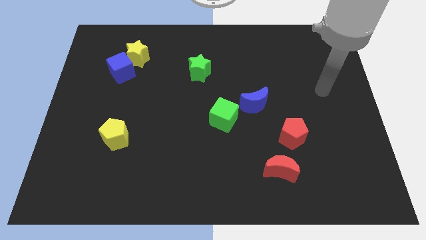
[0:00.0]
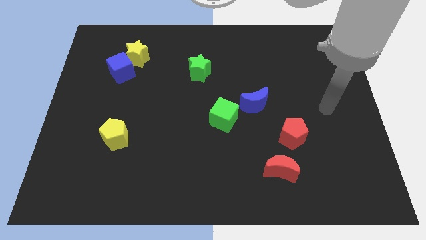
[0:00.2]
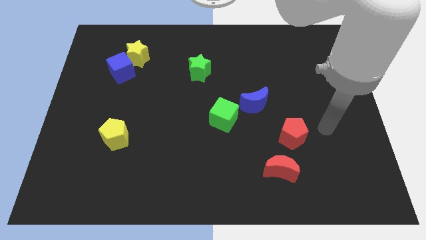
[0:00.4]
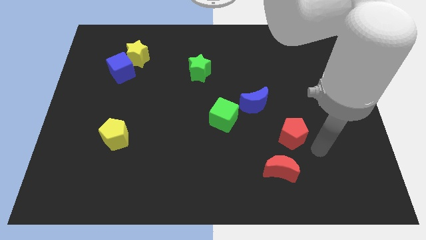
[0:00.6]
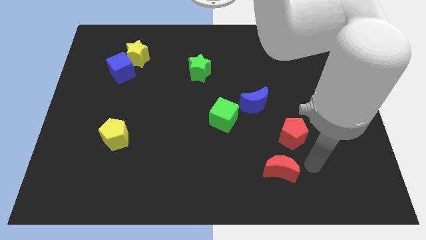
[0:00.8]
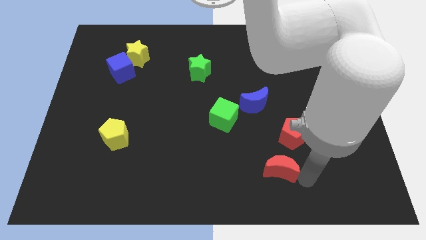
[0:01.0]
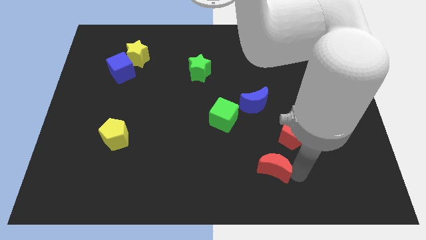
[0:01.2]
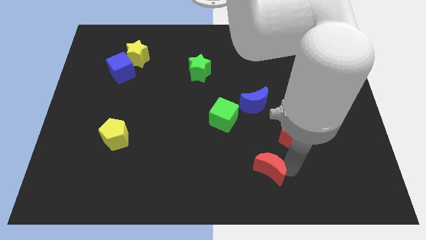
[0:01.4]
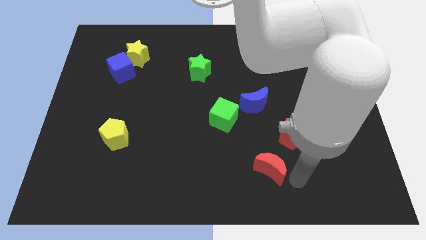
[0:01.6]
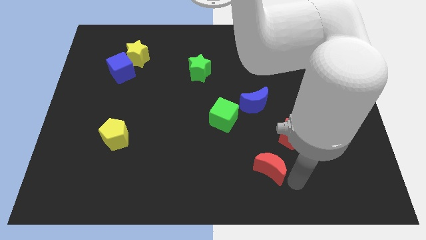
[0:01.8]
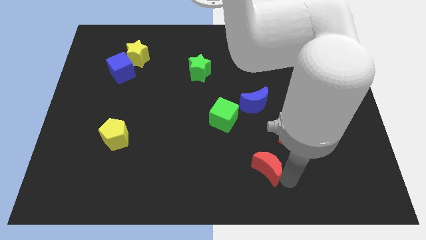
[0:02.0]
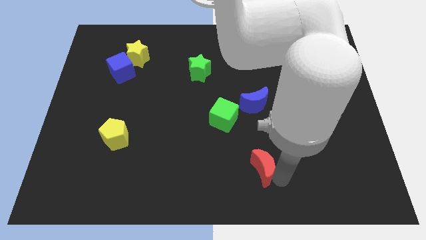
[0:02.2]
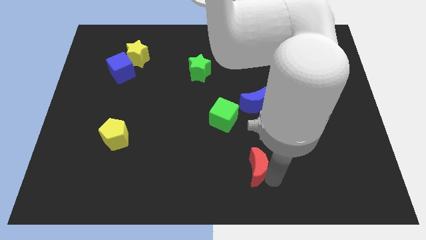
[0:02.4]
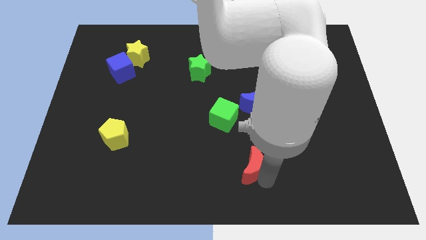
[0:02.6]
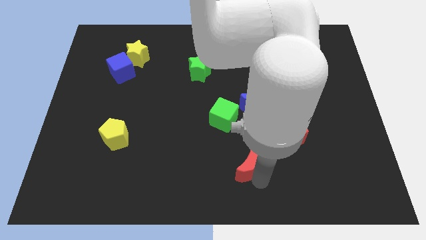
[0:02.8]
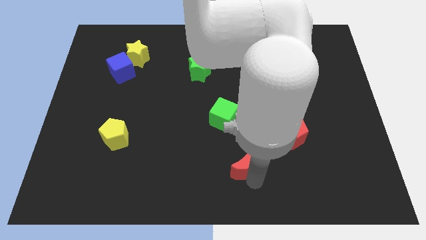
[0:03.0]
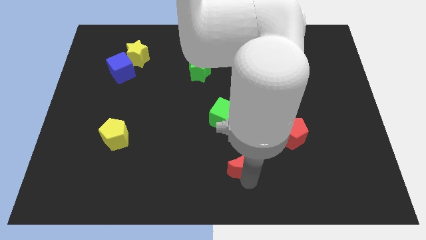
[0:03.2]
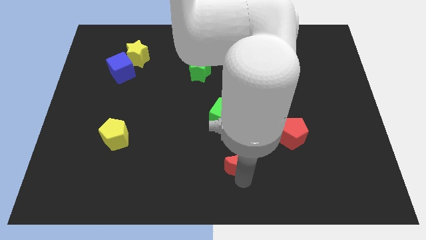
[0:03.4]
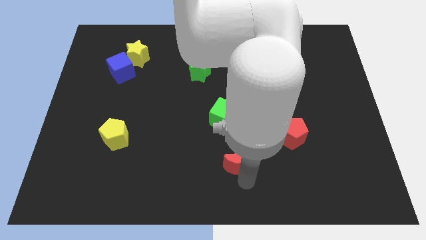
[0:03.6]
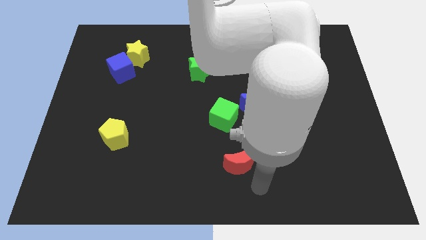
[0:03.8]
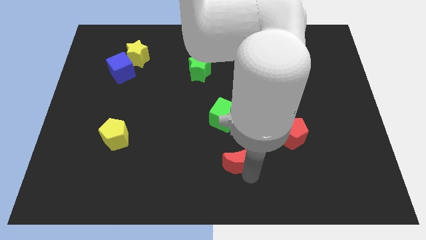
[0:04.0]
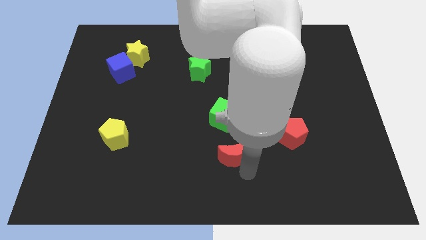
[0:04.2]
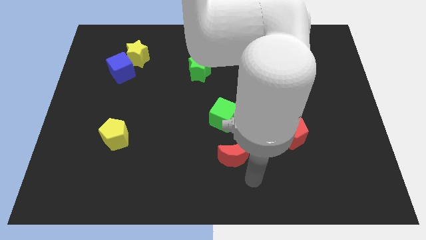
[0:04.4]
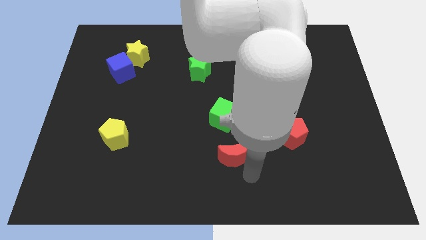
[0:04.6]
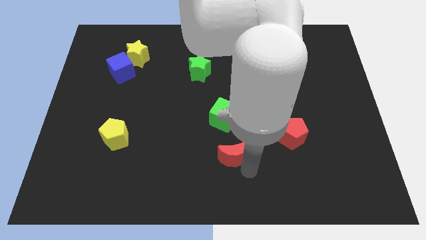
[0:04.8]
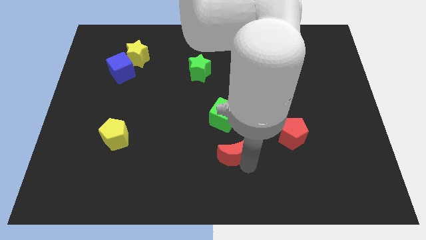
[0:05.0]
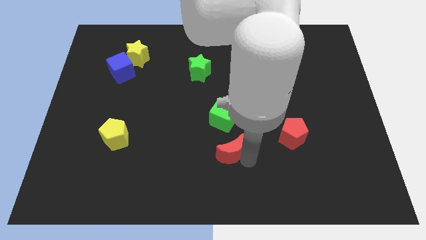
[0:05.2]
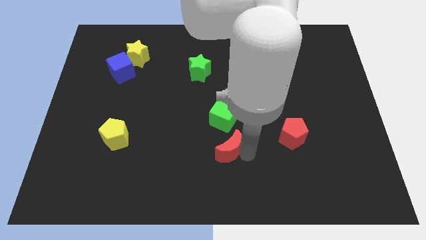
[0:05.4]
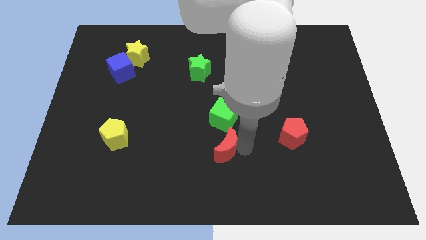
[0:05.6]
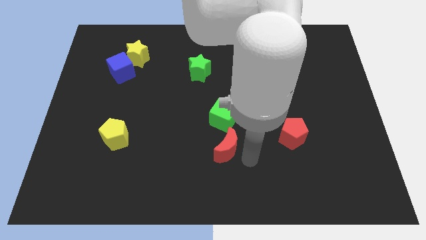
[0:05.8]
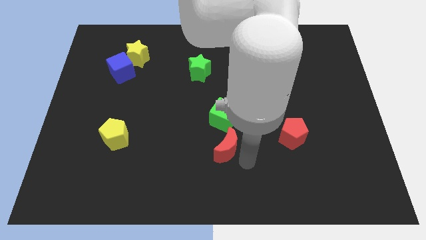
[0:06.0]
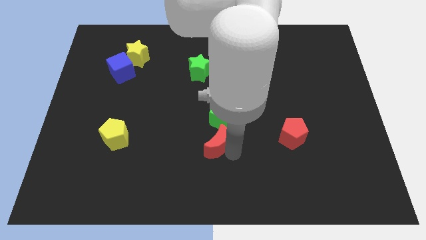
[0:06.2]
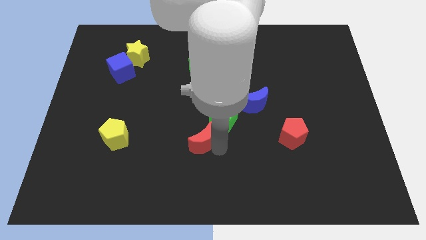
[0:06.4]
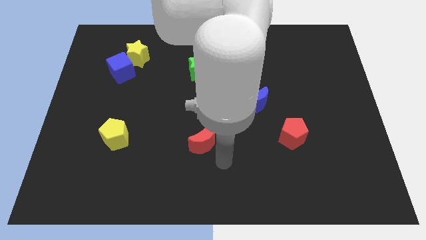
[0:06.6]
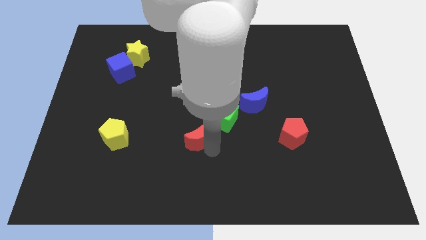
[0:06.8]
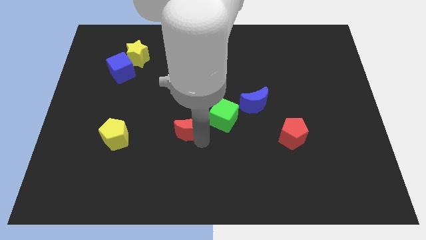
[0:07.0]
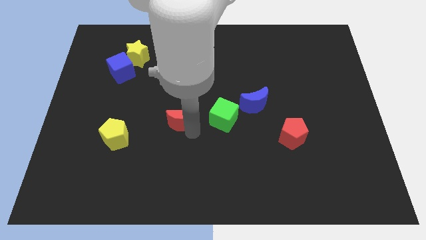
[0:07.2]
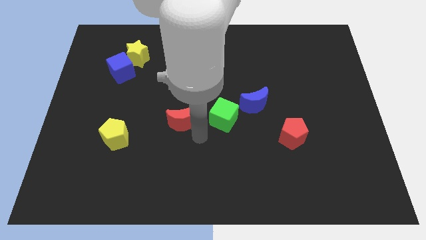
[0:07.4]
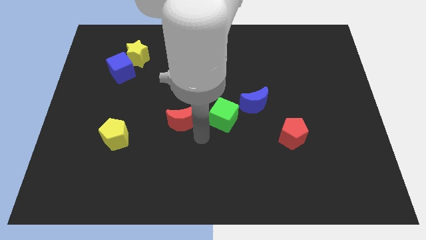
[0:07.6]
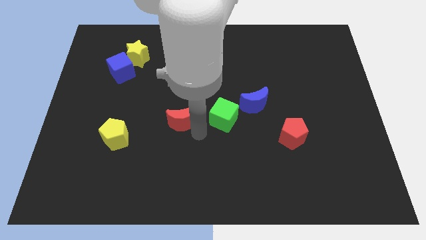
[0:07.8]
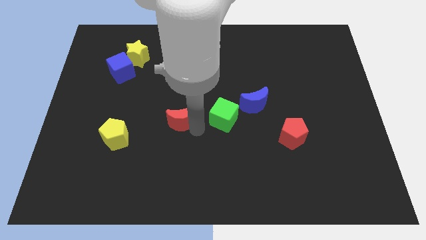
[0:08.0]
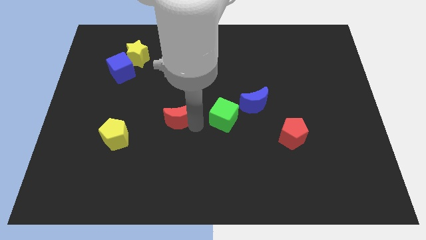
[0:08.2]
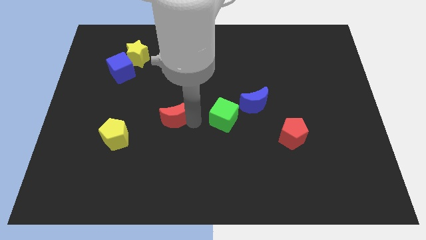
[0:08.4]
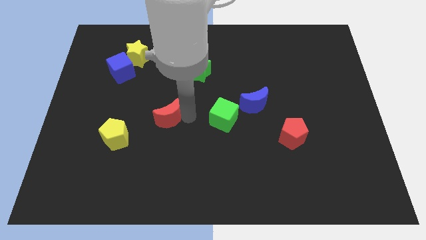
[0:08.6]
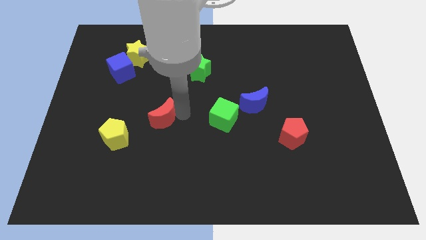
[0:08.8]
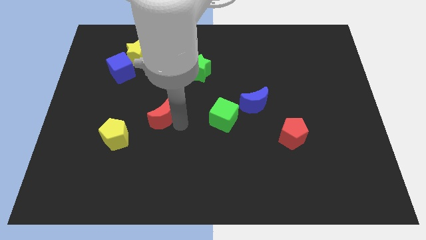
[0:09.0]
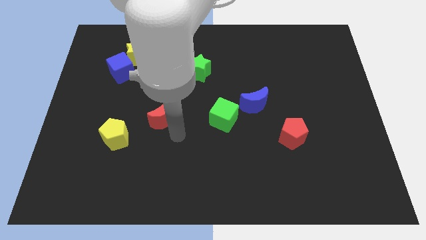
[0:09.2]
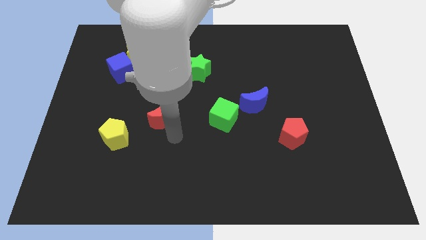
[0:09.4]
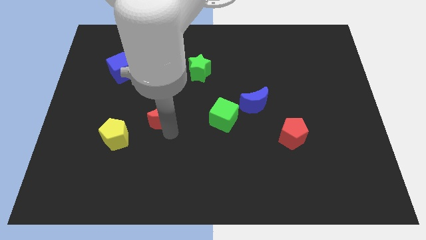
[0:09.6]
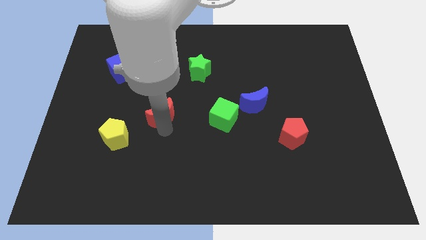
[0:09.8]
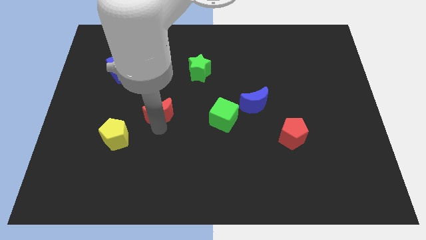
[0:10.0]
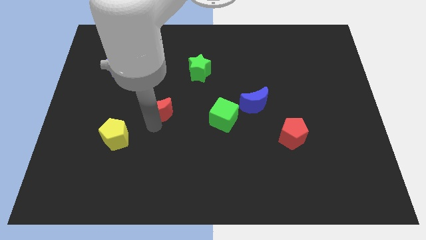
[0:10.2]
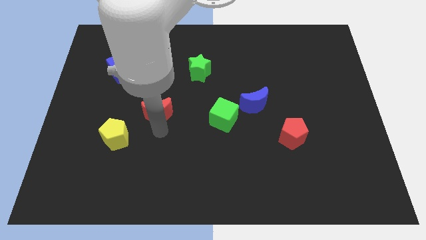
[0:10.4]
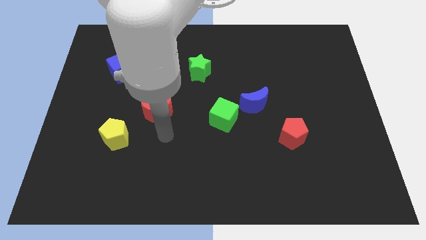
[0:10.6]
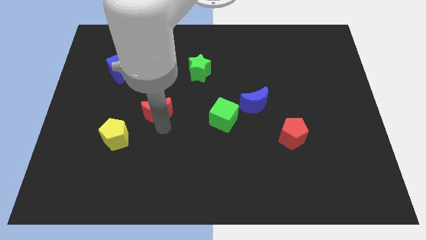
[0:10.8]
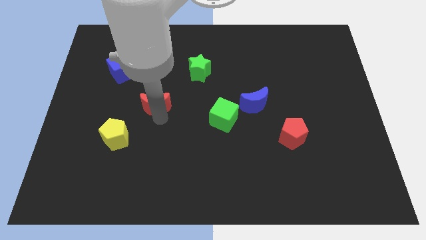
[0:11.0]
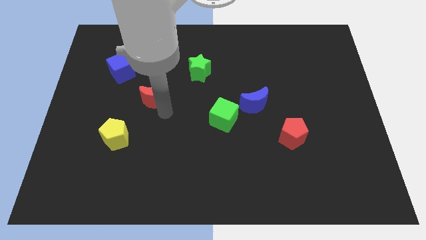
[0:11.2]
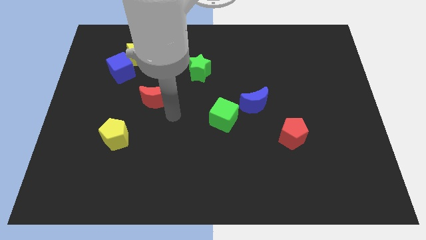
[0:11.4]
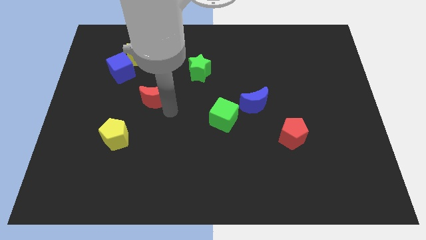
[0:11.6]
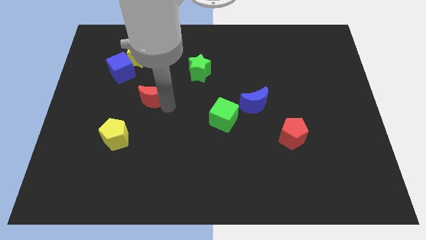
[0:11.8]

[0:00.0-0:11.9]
move the red moon to the bottom right of the blue cube

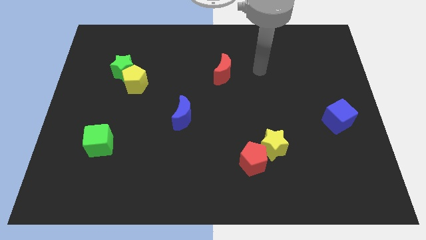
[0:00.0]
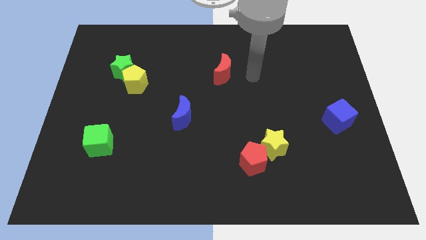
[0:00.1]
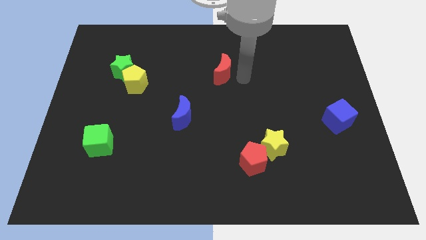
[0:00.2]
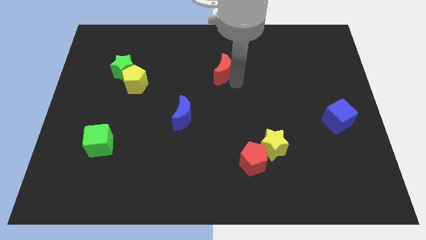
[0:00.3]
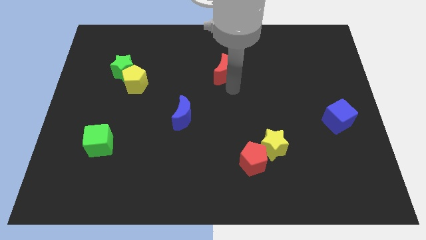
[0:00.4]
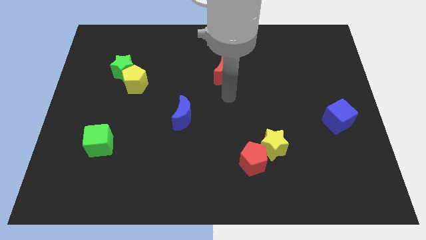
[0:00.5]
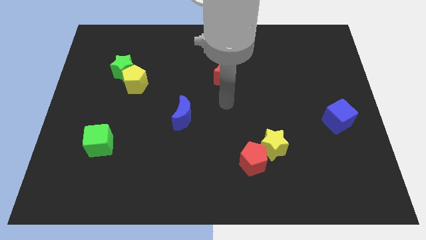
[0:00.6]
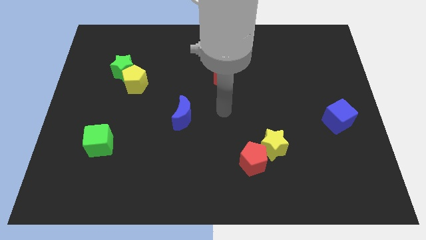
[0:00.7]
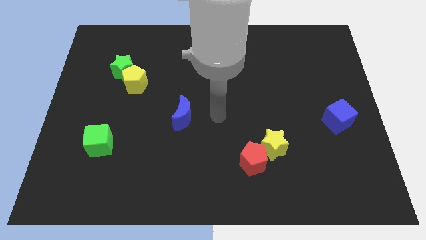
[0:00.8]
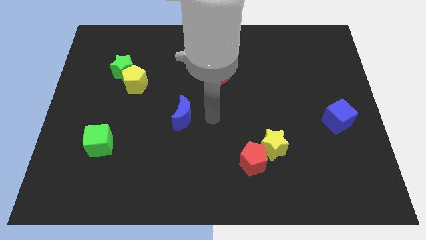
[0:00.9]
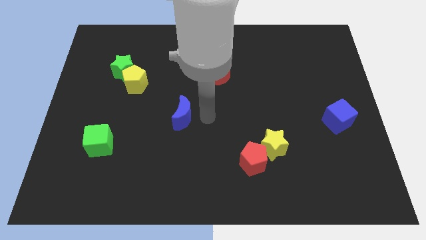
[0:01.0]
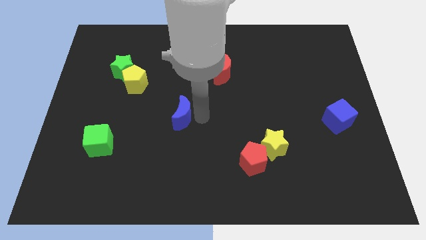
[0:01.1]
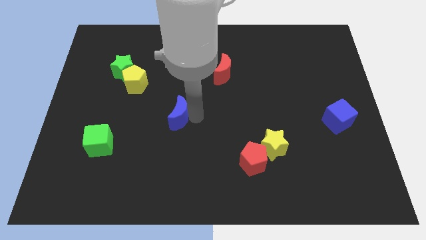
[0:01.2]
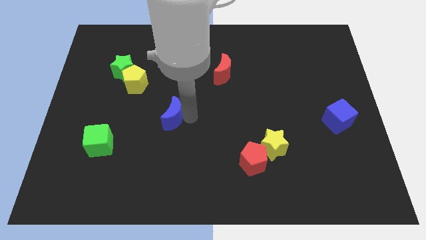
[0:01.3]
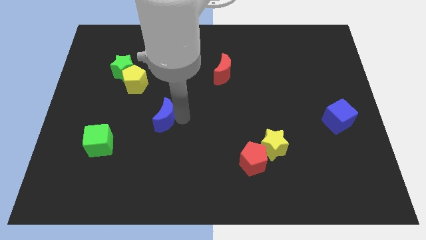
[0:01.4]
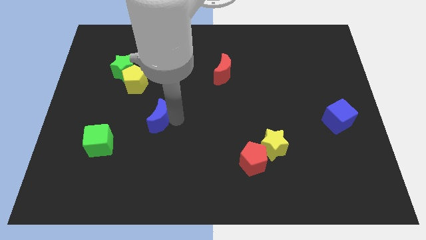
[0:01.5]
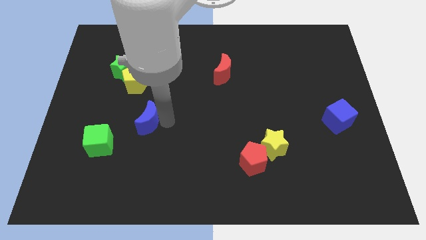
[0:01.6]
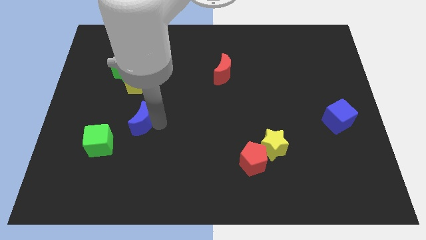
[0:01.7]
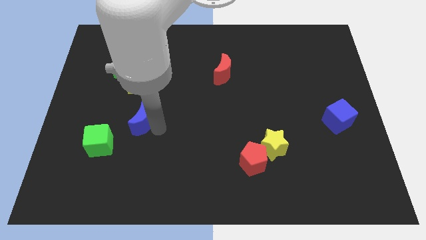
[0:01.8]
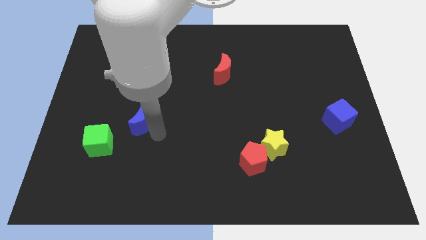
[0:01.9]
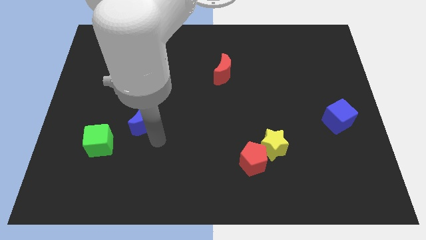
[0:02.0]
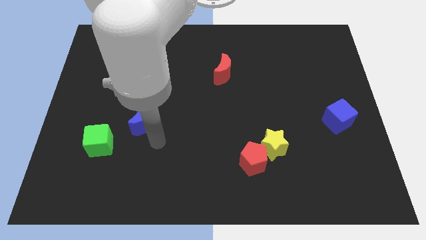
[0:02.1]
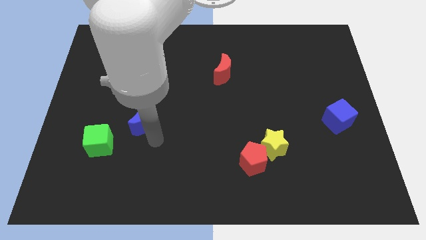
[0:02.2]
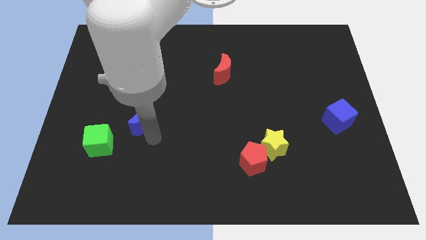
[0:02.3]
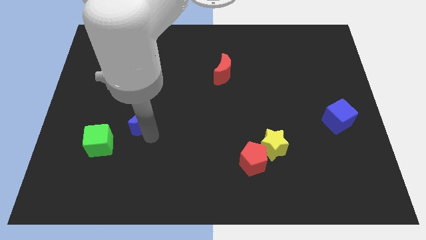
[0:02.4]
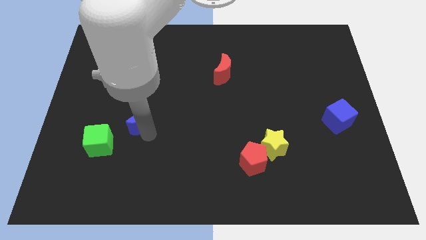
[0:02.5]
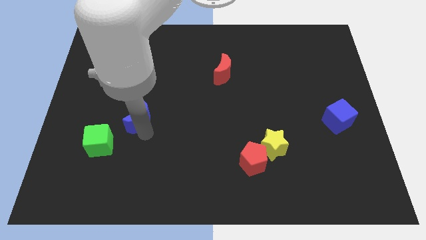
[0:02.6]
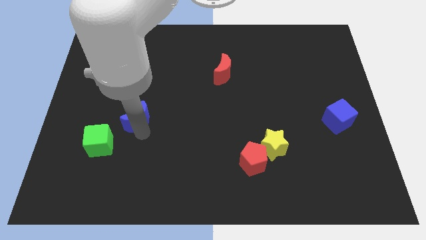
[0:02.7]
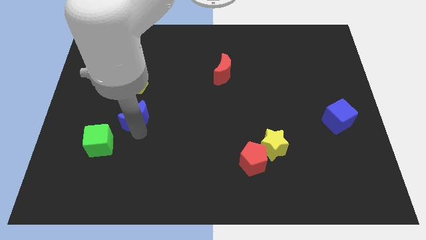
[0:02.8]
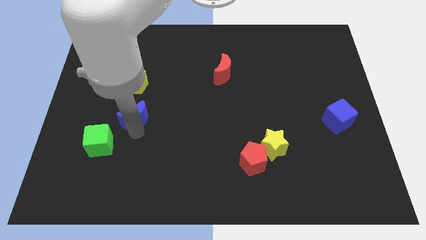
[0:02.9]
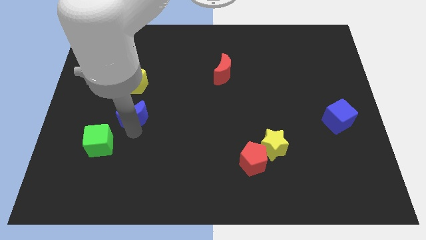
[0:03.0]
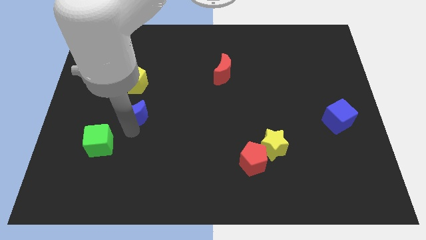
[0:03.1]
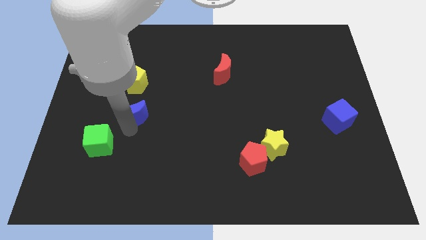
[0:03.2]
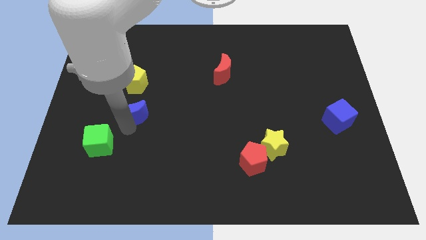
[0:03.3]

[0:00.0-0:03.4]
push the blue moon to the bottom of the green star
